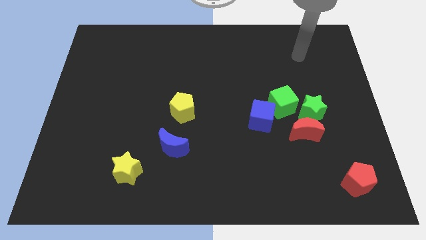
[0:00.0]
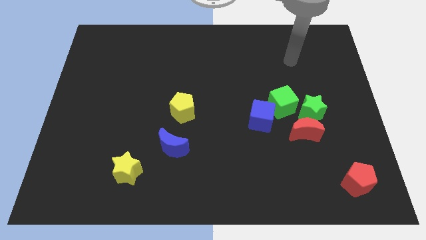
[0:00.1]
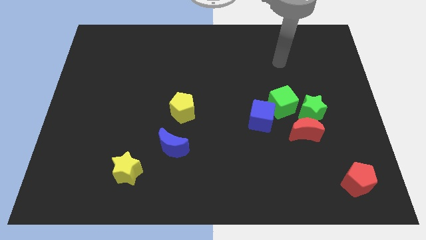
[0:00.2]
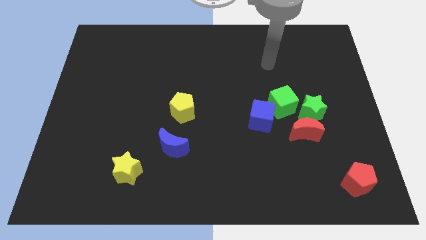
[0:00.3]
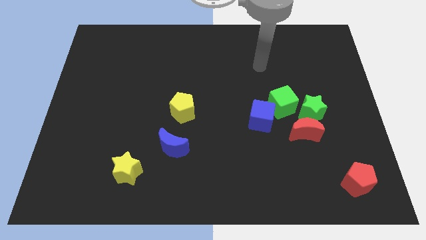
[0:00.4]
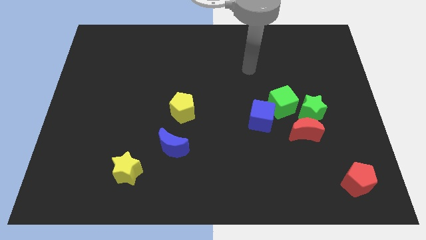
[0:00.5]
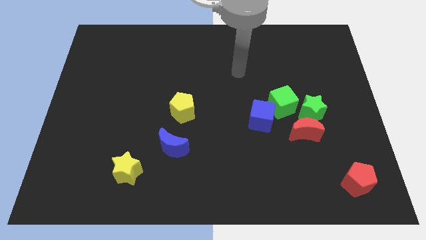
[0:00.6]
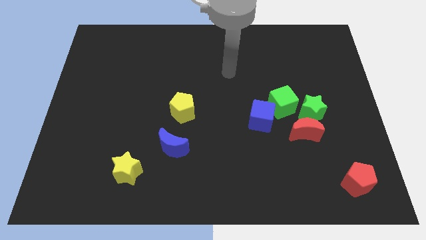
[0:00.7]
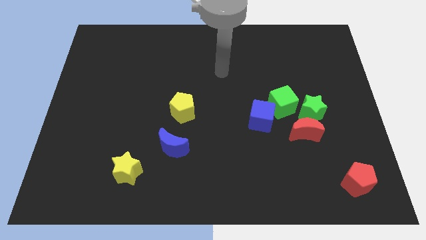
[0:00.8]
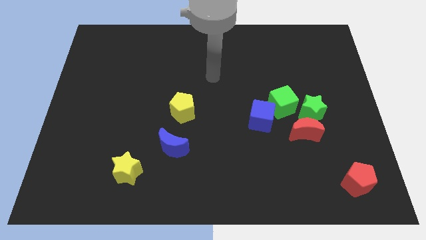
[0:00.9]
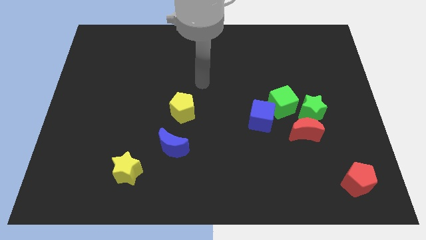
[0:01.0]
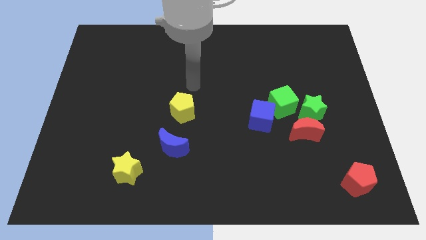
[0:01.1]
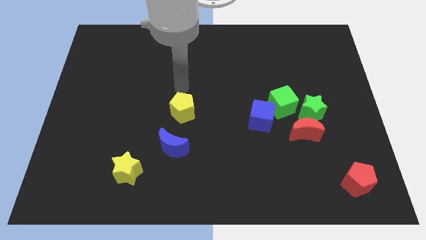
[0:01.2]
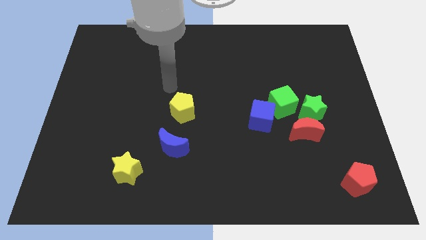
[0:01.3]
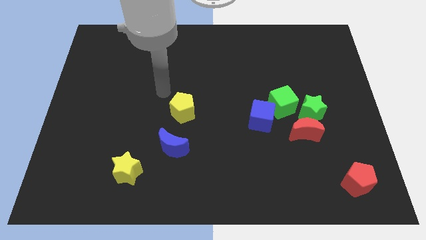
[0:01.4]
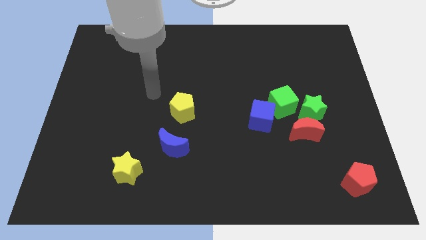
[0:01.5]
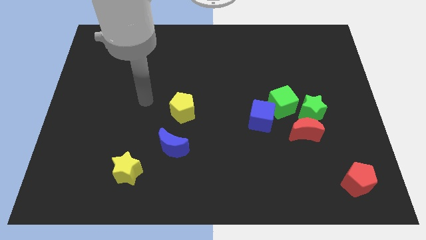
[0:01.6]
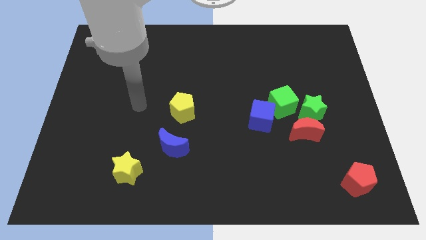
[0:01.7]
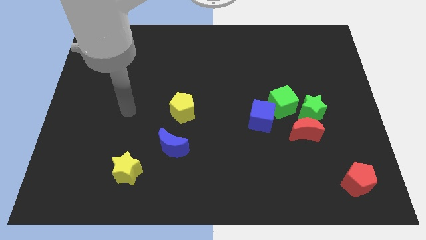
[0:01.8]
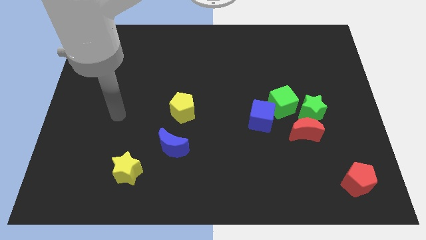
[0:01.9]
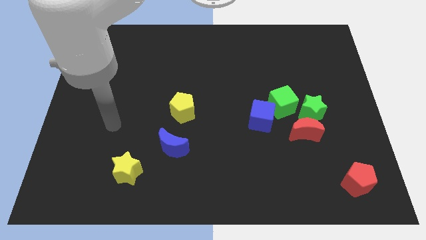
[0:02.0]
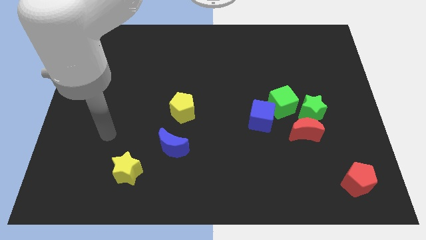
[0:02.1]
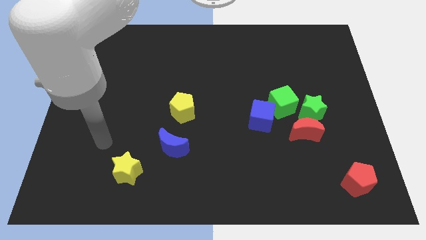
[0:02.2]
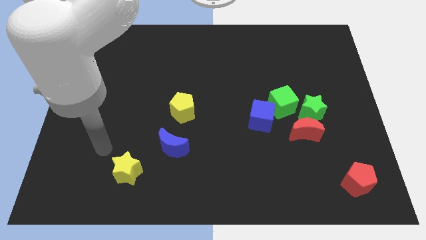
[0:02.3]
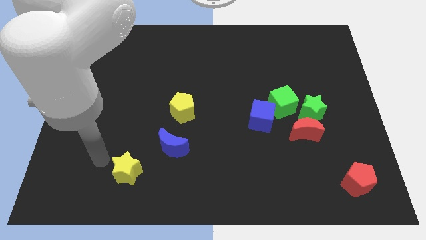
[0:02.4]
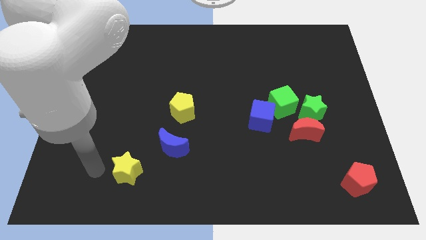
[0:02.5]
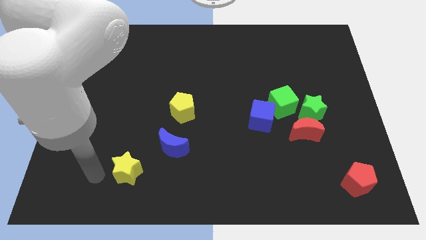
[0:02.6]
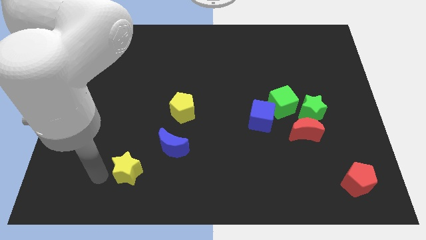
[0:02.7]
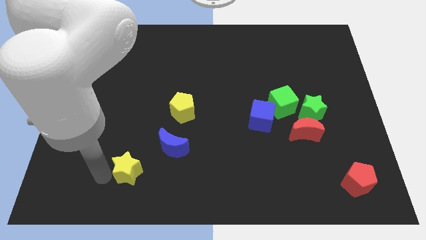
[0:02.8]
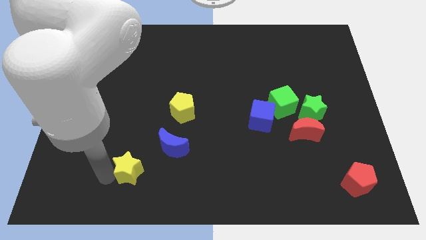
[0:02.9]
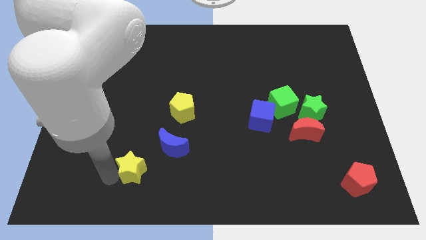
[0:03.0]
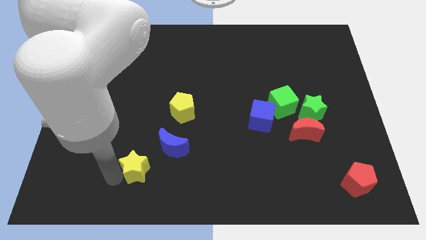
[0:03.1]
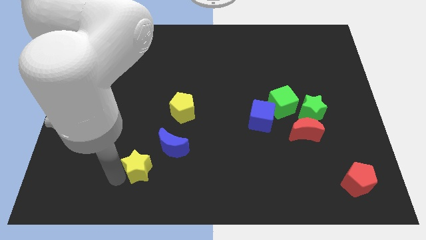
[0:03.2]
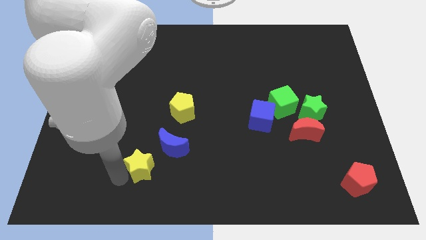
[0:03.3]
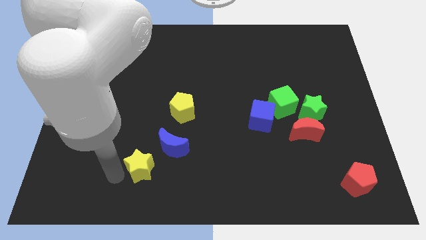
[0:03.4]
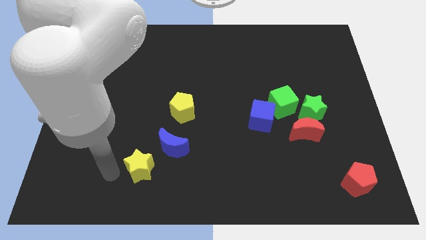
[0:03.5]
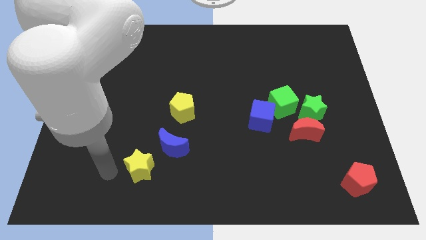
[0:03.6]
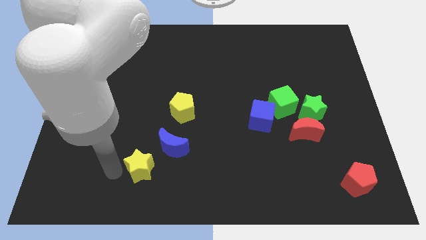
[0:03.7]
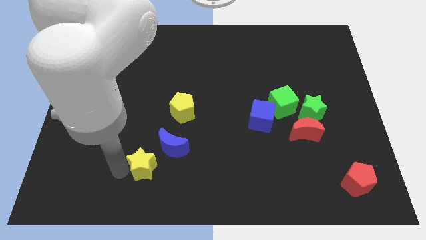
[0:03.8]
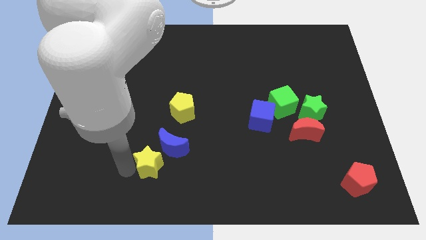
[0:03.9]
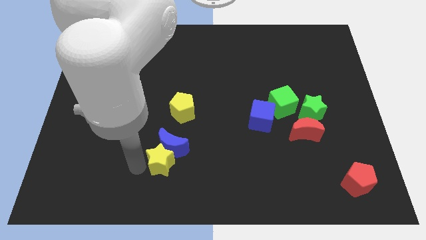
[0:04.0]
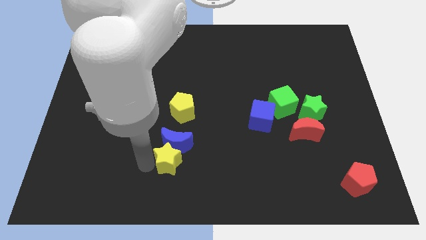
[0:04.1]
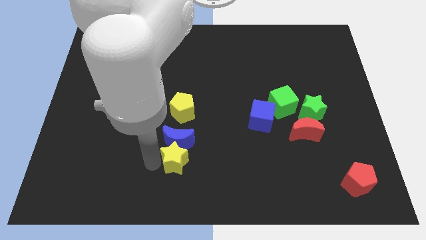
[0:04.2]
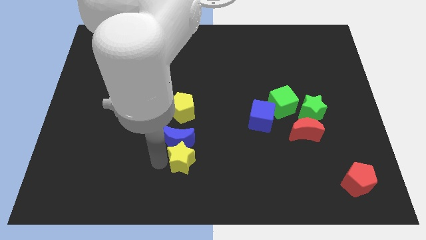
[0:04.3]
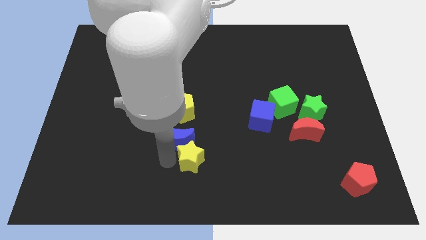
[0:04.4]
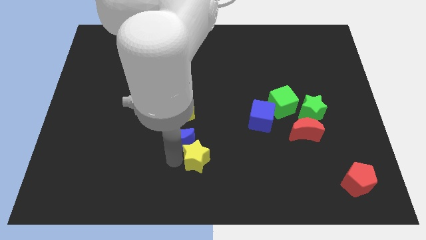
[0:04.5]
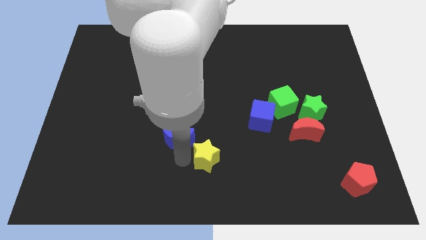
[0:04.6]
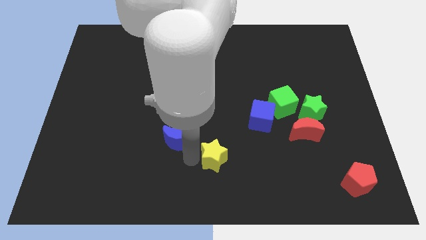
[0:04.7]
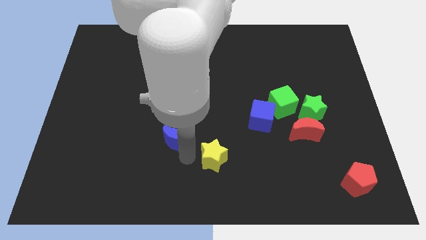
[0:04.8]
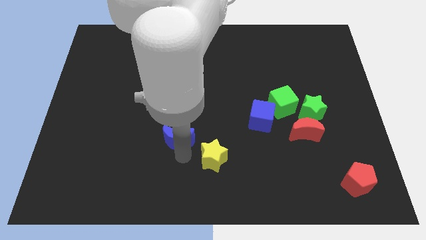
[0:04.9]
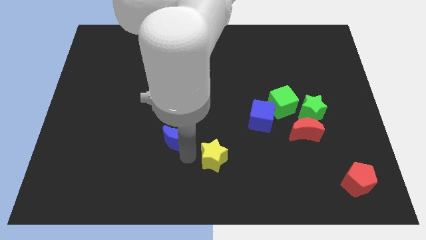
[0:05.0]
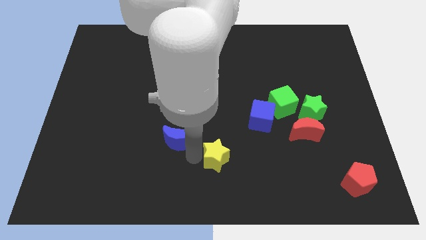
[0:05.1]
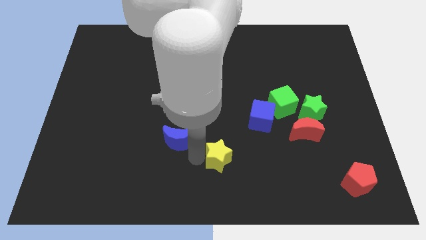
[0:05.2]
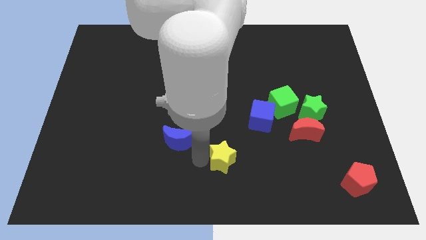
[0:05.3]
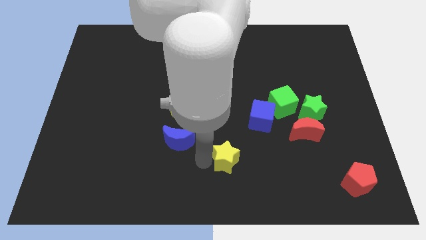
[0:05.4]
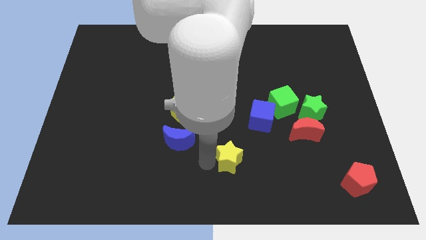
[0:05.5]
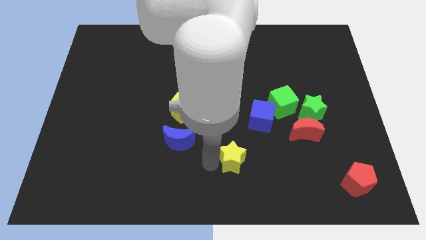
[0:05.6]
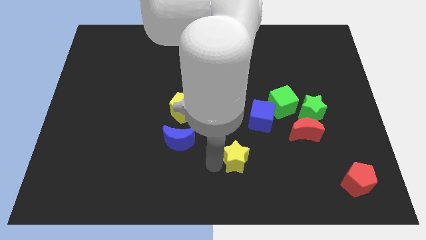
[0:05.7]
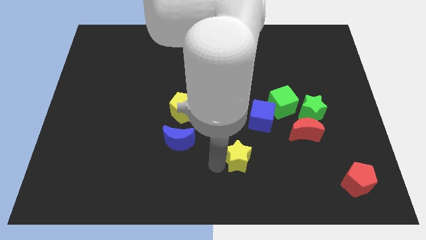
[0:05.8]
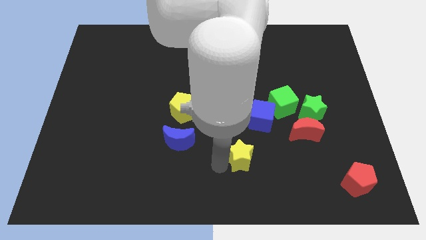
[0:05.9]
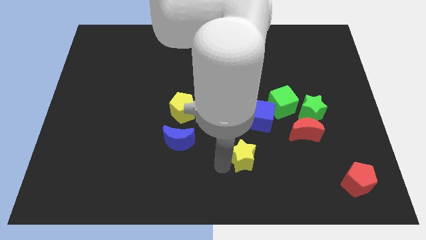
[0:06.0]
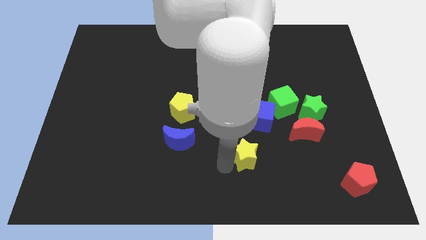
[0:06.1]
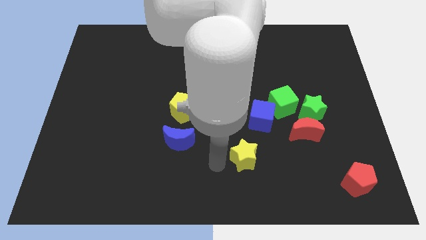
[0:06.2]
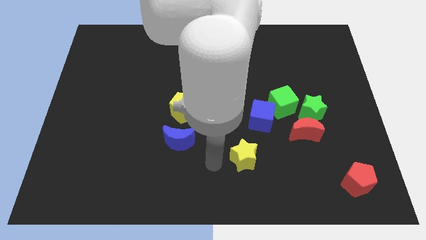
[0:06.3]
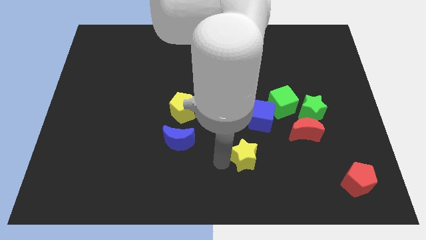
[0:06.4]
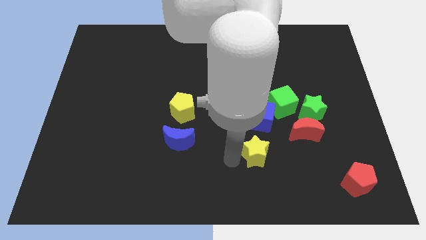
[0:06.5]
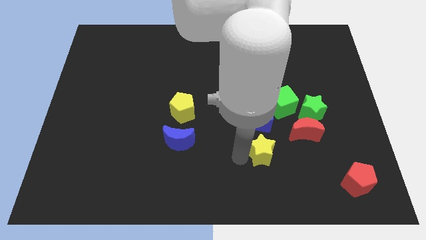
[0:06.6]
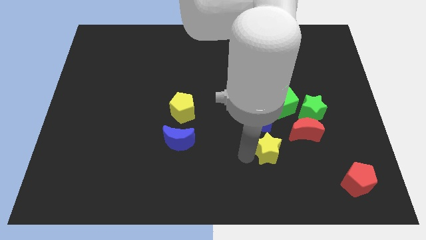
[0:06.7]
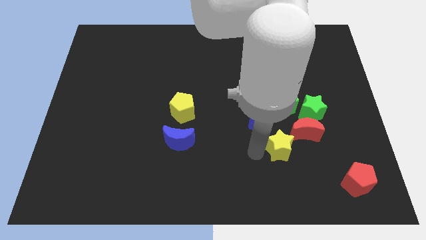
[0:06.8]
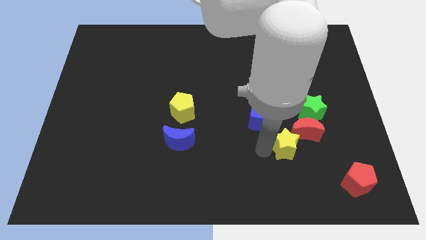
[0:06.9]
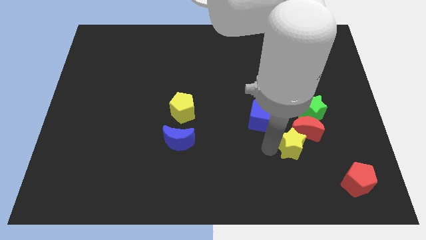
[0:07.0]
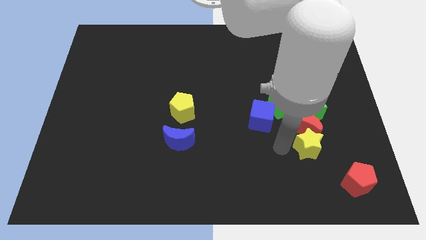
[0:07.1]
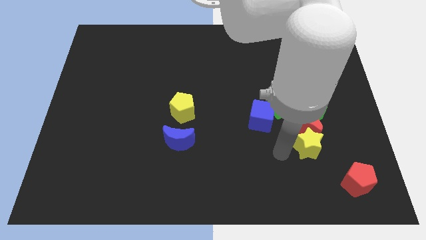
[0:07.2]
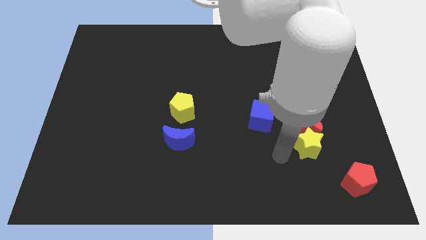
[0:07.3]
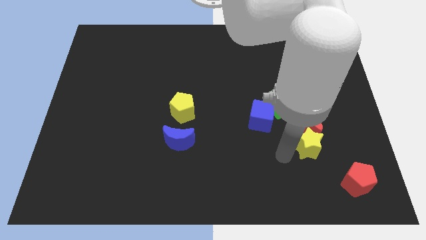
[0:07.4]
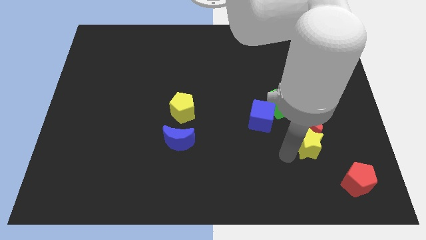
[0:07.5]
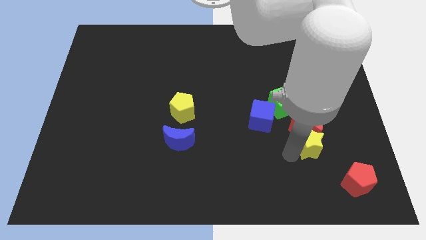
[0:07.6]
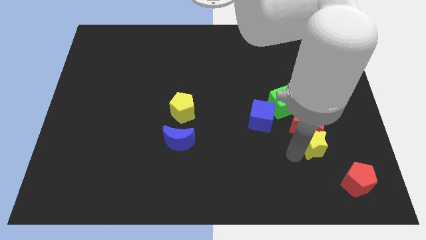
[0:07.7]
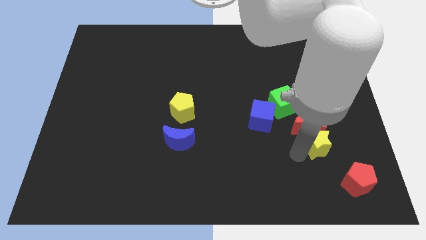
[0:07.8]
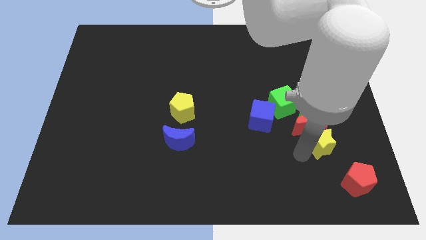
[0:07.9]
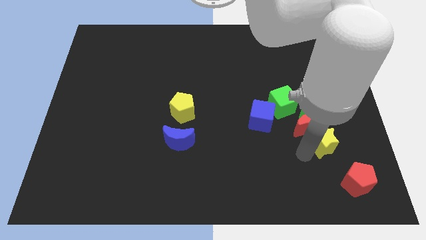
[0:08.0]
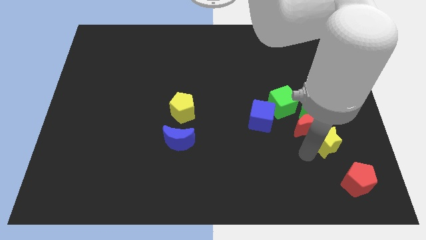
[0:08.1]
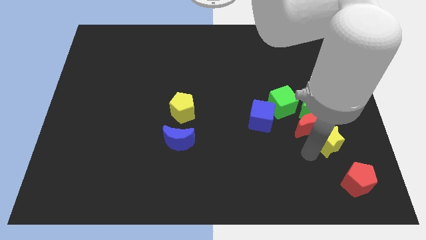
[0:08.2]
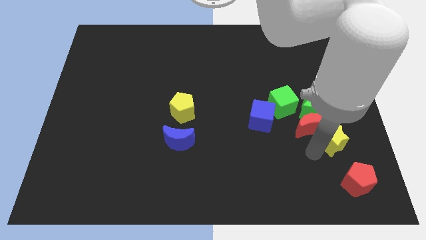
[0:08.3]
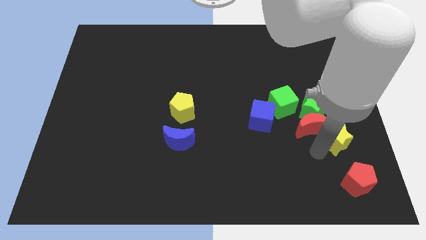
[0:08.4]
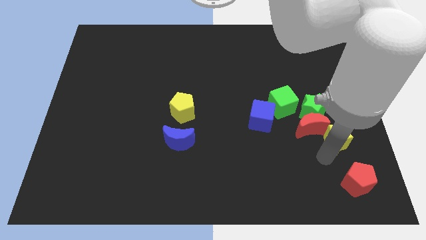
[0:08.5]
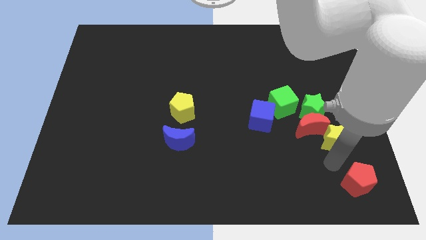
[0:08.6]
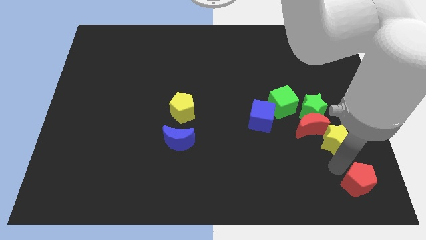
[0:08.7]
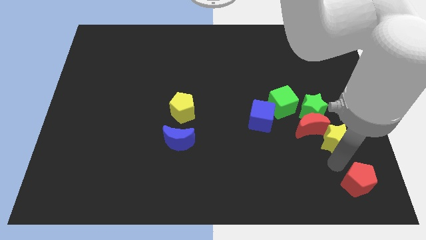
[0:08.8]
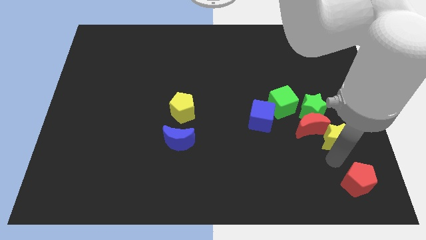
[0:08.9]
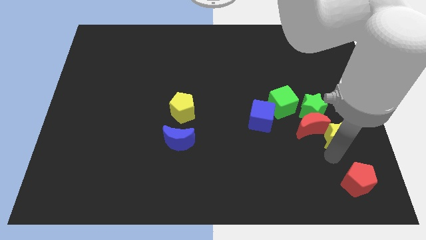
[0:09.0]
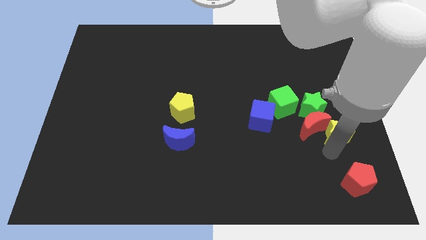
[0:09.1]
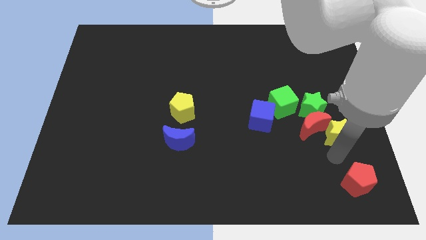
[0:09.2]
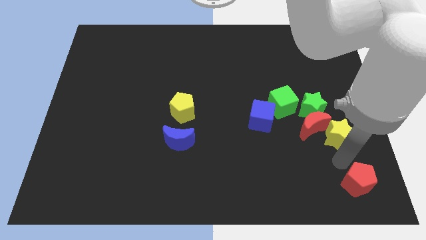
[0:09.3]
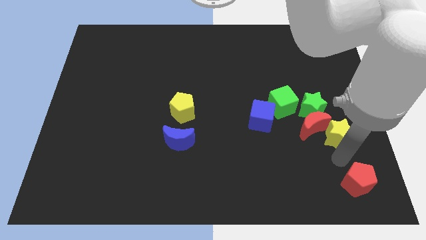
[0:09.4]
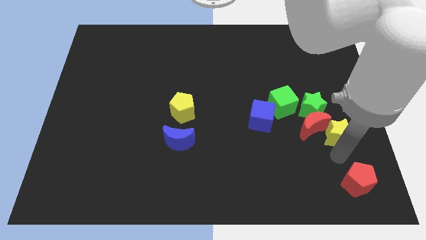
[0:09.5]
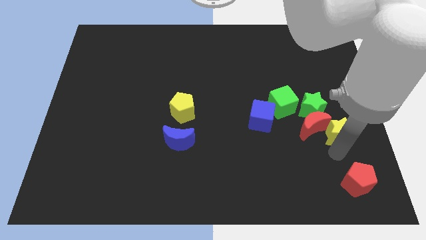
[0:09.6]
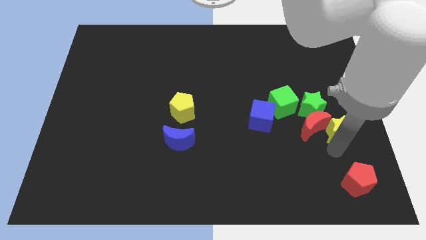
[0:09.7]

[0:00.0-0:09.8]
put the yellow star to the top right of the red moon
